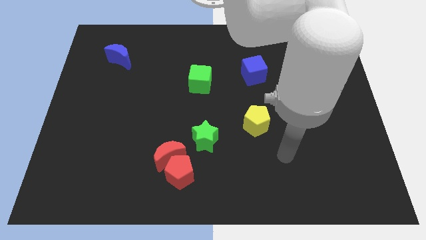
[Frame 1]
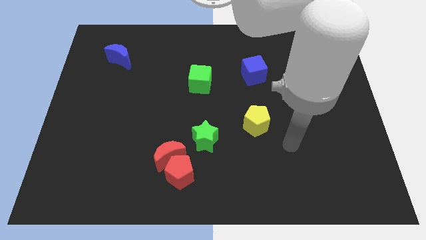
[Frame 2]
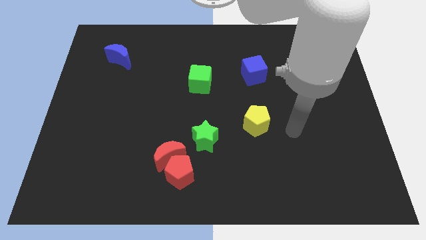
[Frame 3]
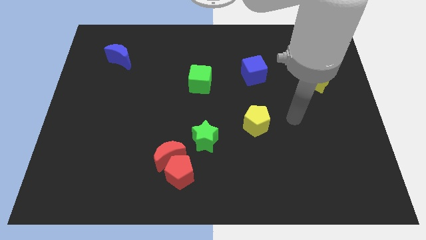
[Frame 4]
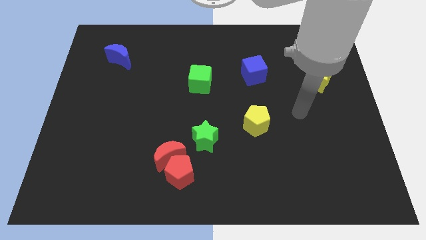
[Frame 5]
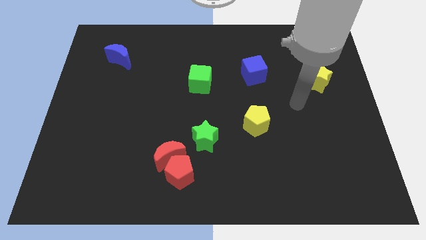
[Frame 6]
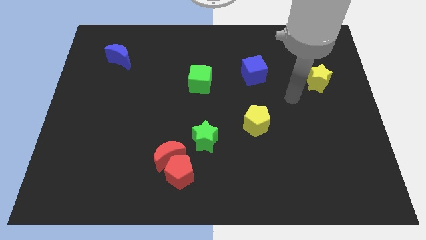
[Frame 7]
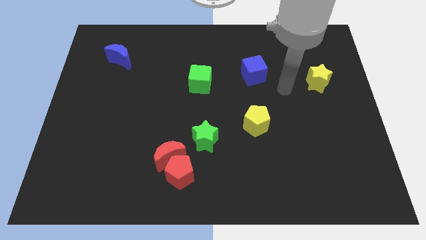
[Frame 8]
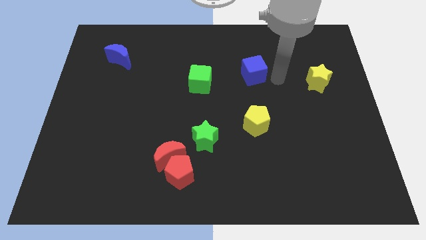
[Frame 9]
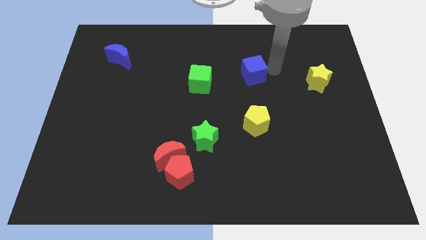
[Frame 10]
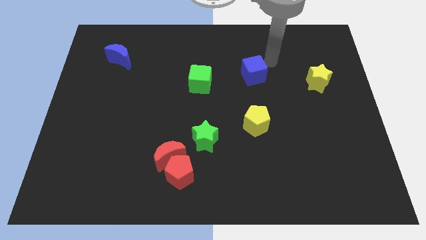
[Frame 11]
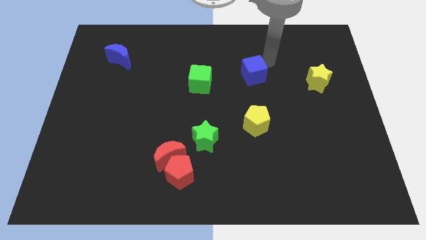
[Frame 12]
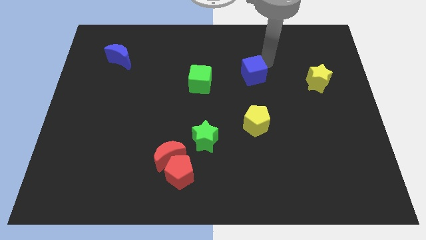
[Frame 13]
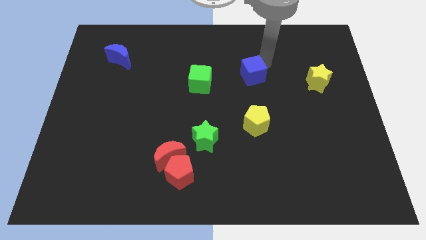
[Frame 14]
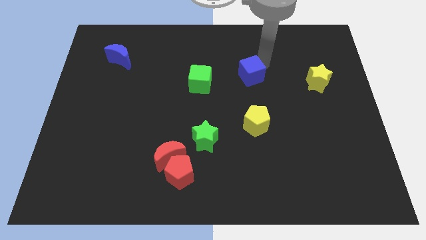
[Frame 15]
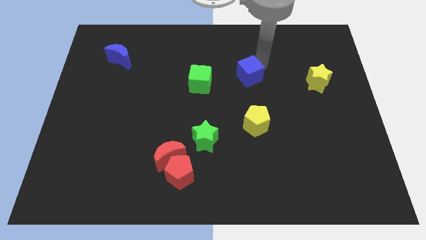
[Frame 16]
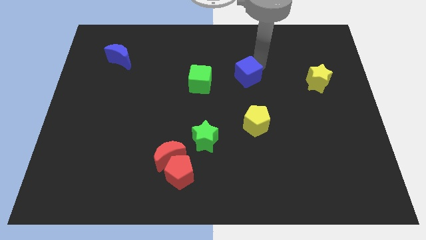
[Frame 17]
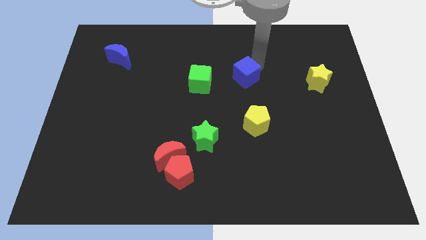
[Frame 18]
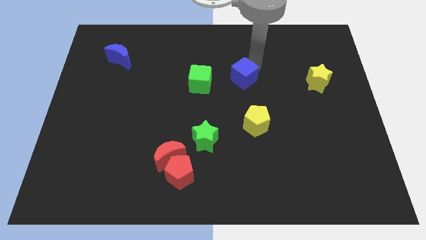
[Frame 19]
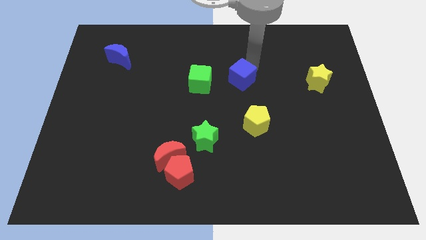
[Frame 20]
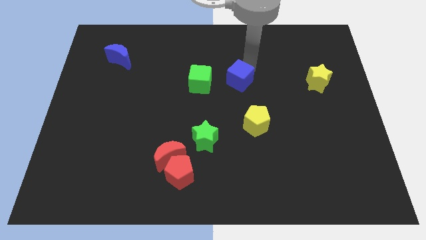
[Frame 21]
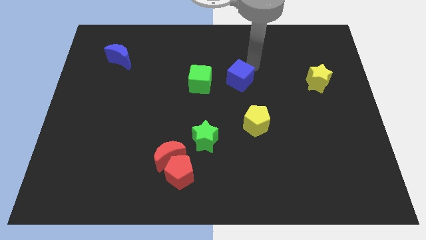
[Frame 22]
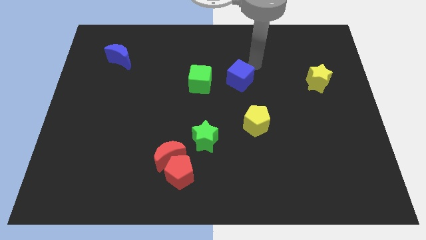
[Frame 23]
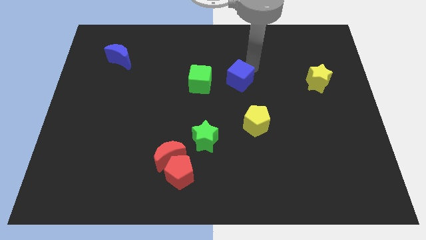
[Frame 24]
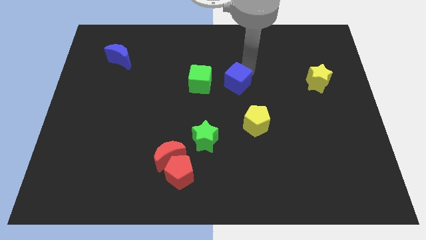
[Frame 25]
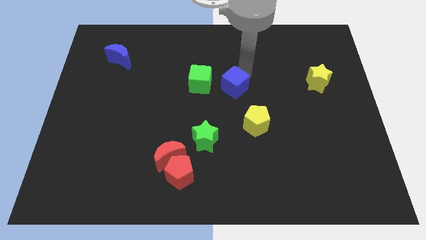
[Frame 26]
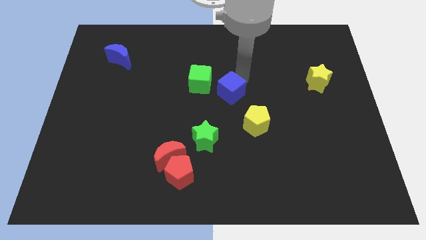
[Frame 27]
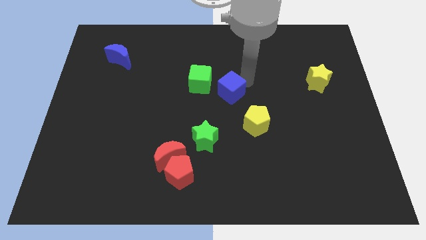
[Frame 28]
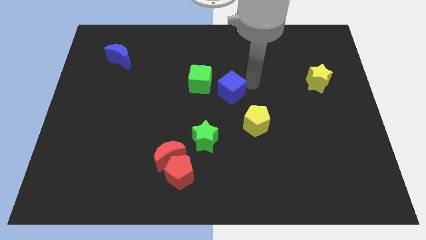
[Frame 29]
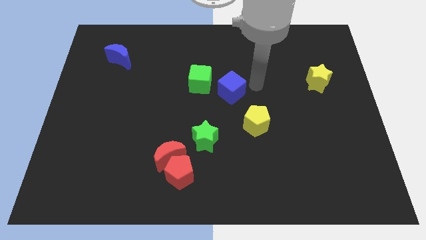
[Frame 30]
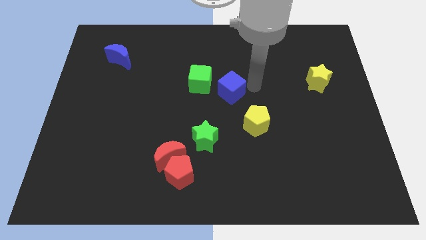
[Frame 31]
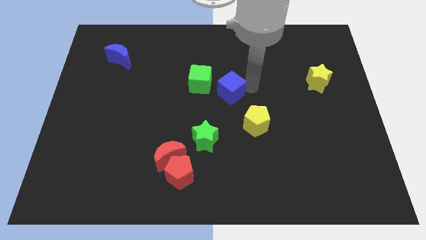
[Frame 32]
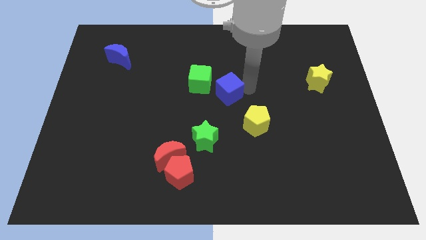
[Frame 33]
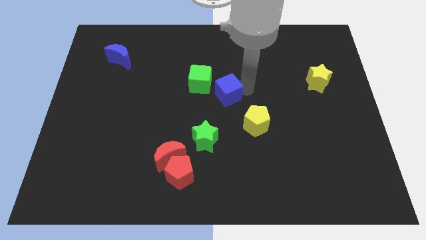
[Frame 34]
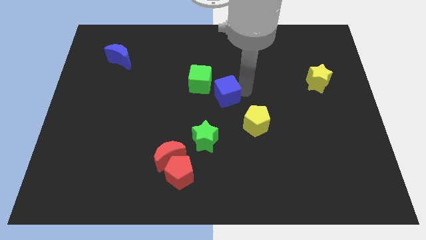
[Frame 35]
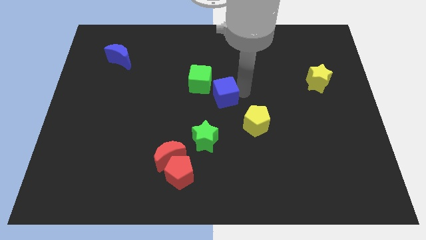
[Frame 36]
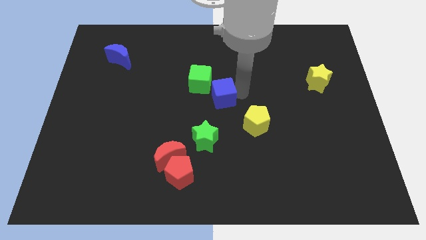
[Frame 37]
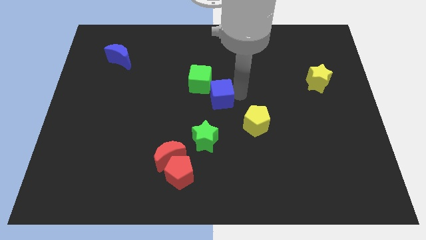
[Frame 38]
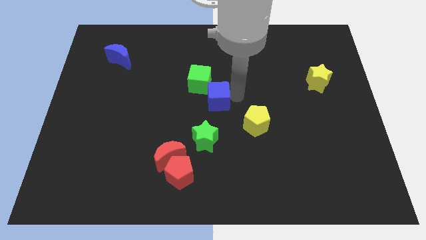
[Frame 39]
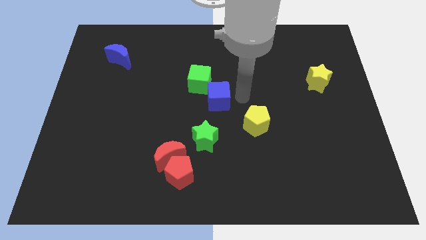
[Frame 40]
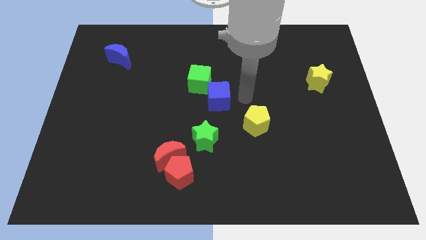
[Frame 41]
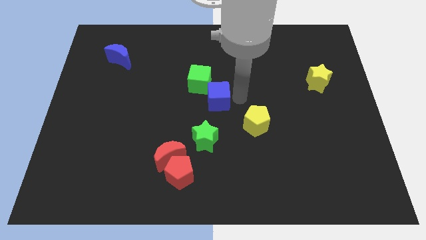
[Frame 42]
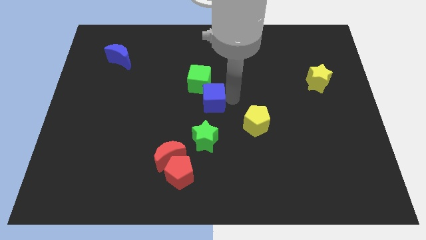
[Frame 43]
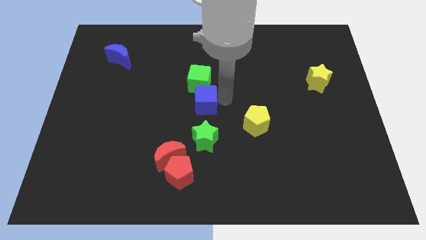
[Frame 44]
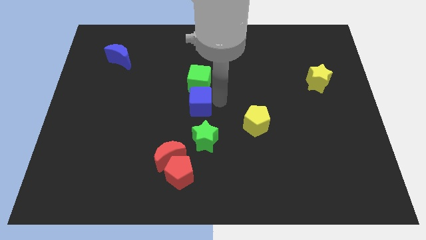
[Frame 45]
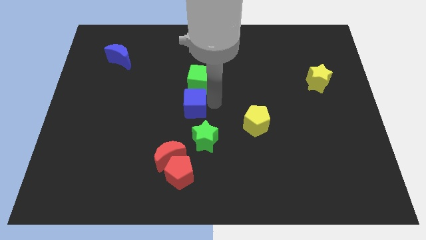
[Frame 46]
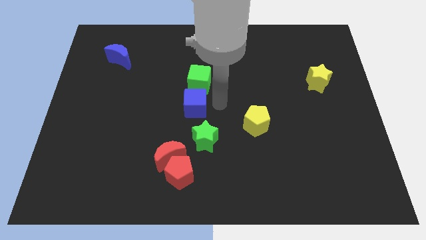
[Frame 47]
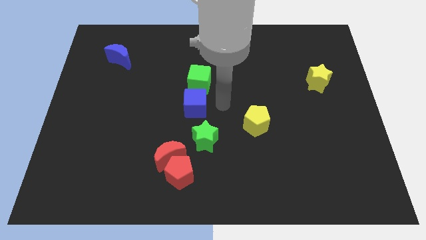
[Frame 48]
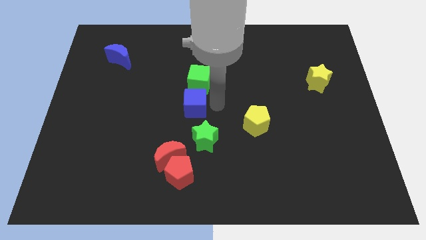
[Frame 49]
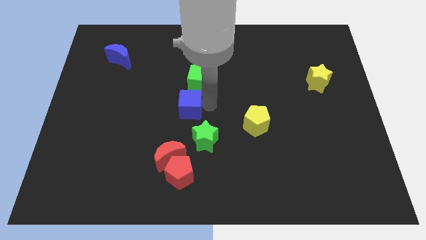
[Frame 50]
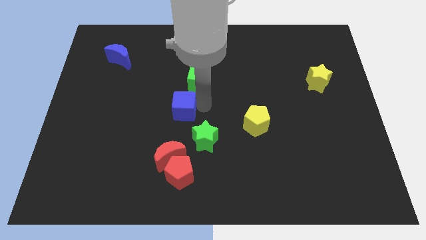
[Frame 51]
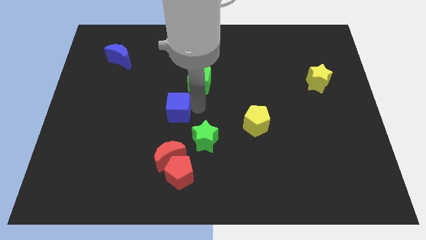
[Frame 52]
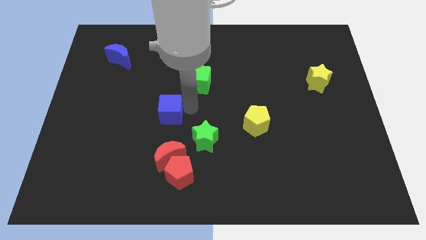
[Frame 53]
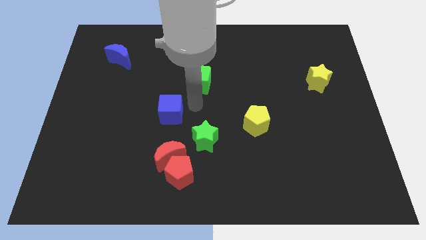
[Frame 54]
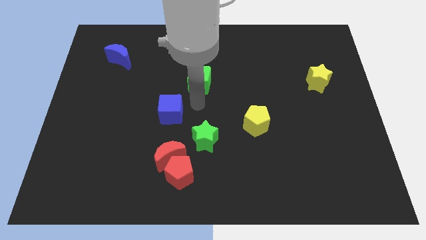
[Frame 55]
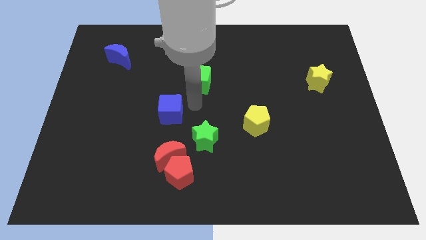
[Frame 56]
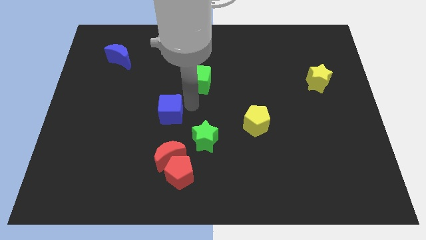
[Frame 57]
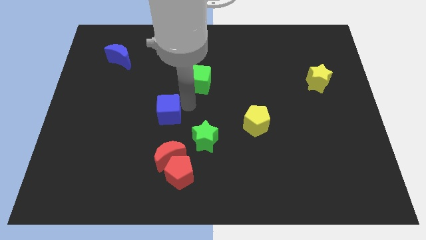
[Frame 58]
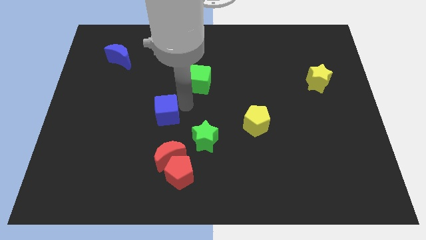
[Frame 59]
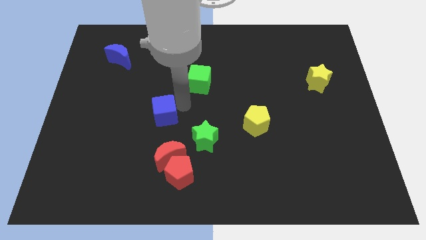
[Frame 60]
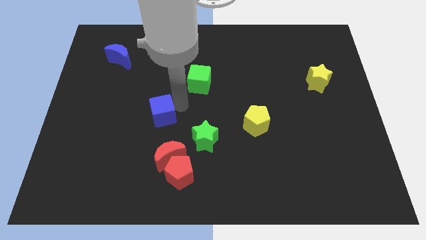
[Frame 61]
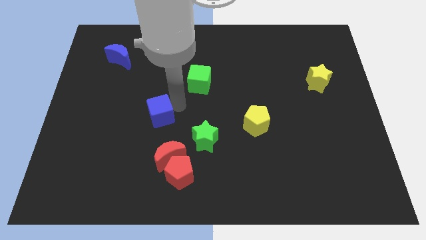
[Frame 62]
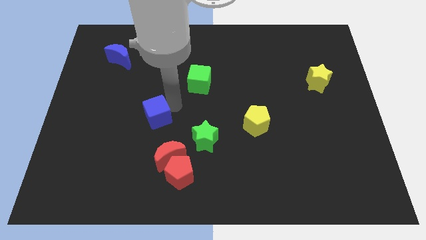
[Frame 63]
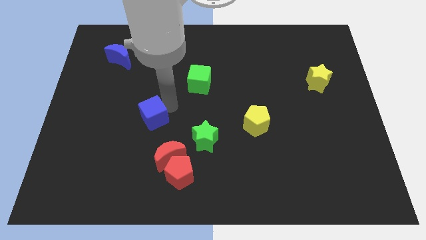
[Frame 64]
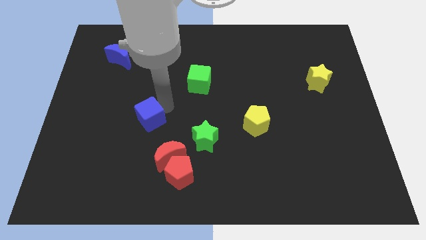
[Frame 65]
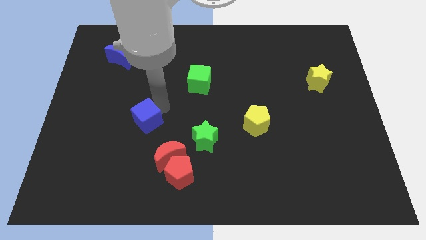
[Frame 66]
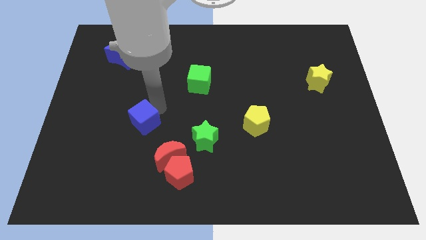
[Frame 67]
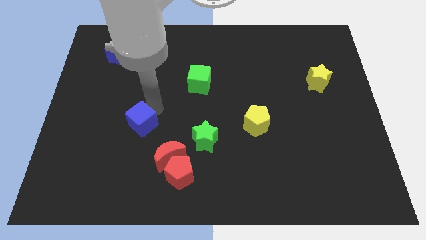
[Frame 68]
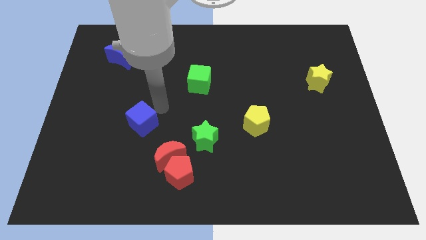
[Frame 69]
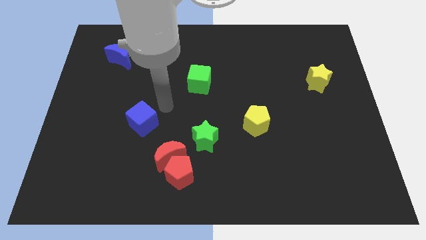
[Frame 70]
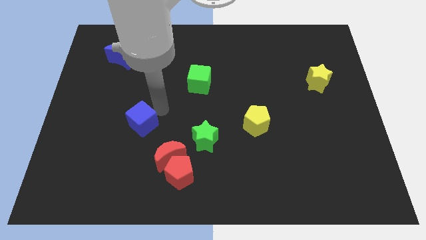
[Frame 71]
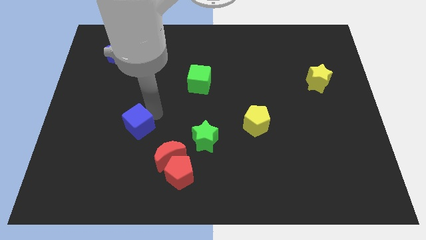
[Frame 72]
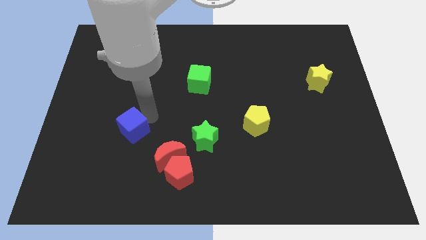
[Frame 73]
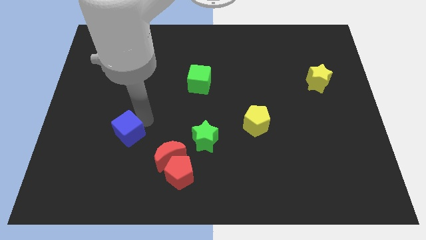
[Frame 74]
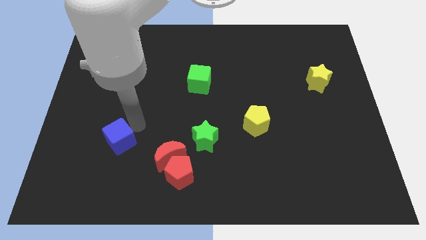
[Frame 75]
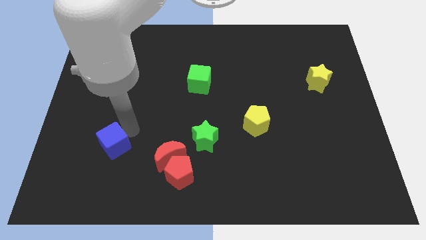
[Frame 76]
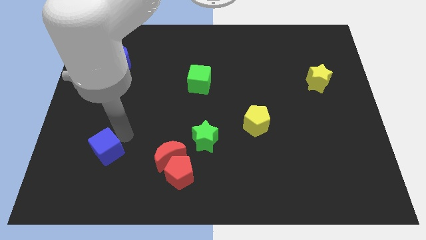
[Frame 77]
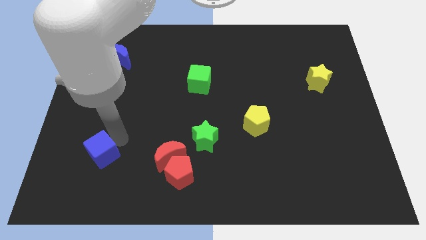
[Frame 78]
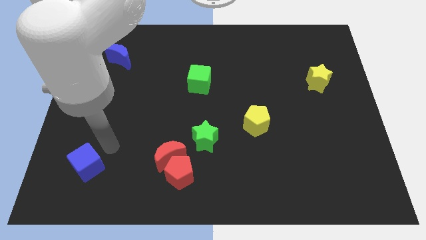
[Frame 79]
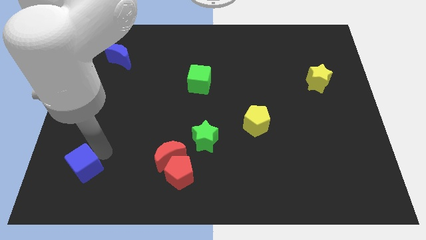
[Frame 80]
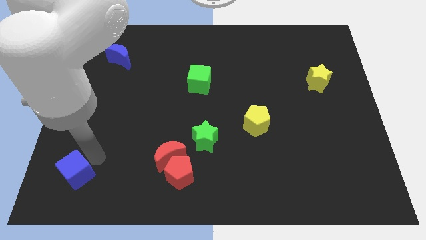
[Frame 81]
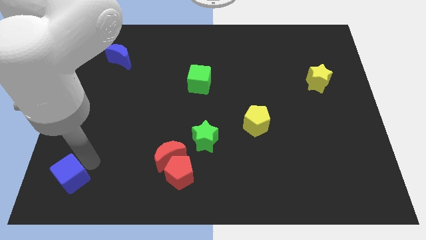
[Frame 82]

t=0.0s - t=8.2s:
push the blue cube to the bottom left corner
